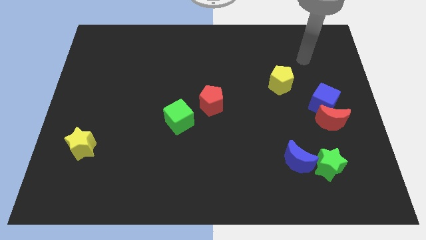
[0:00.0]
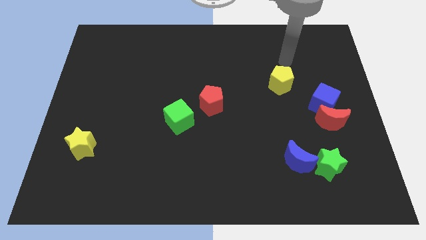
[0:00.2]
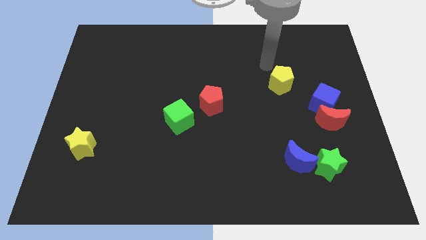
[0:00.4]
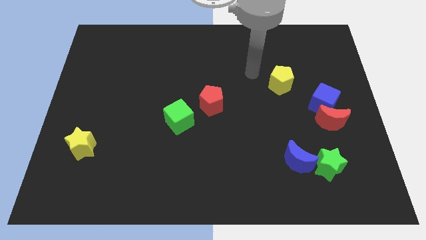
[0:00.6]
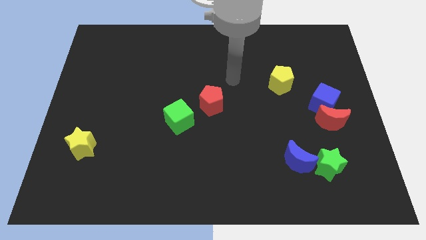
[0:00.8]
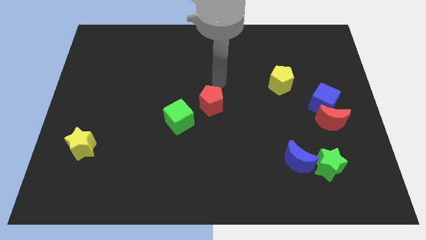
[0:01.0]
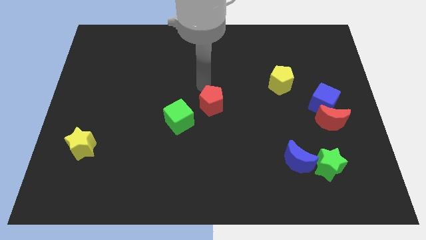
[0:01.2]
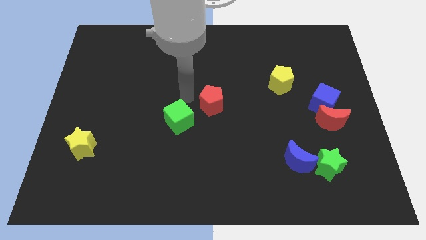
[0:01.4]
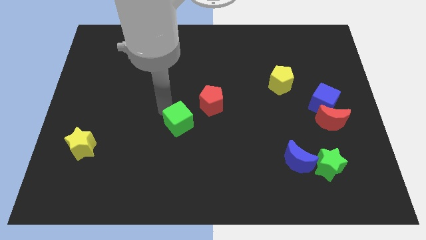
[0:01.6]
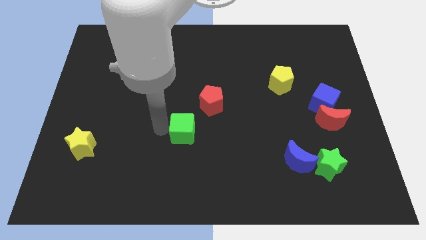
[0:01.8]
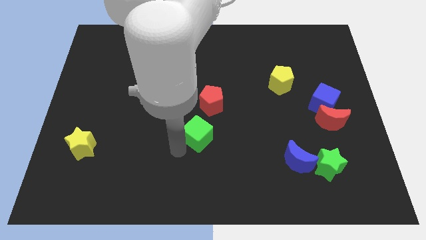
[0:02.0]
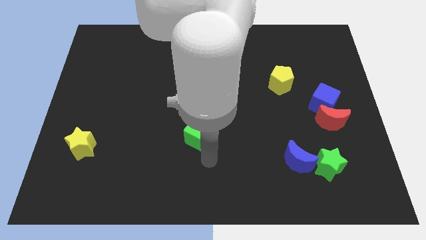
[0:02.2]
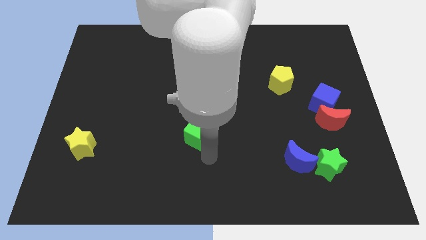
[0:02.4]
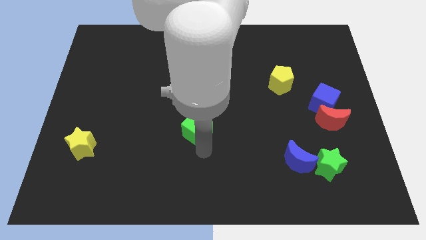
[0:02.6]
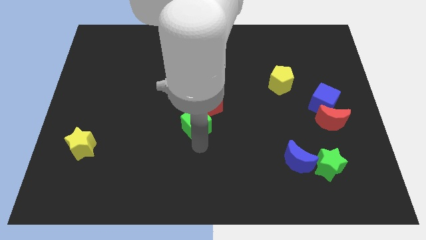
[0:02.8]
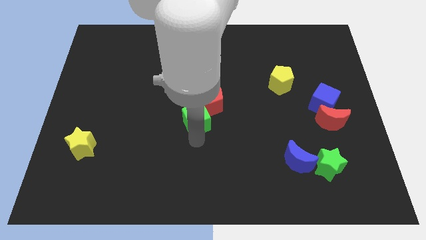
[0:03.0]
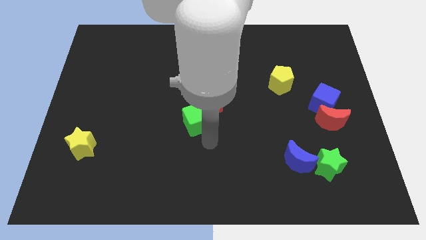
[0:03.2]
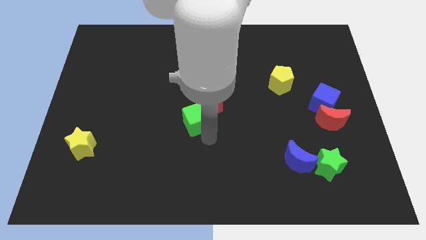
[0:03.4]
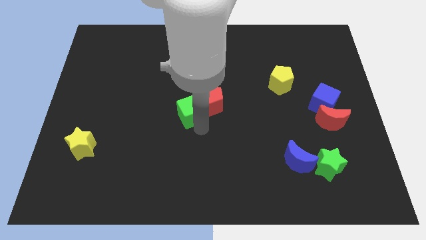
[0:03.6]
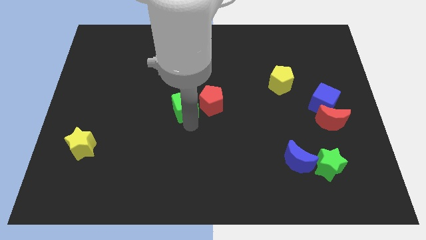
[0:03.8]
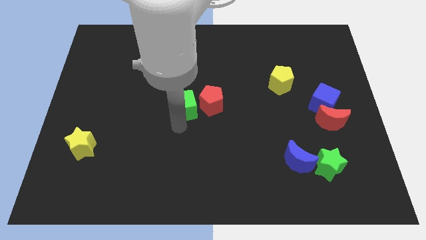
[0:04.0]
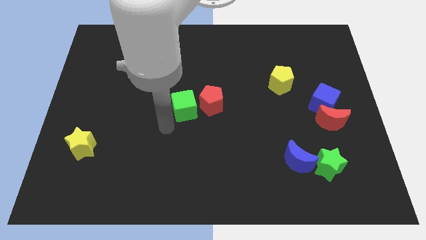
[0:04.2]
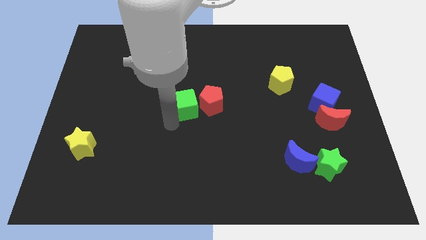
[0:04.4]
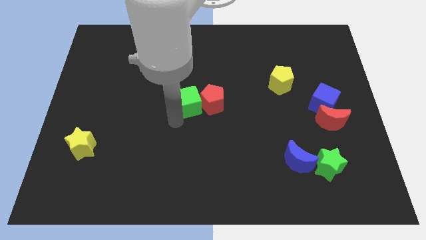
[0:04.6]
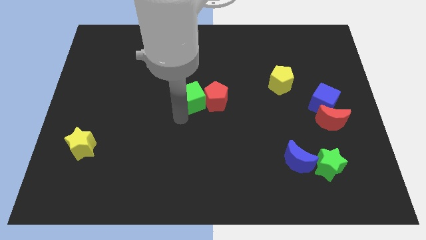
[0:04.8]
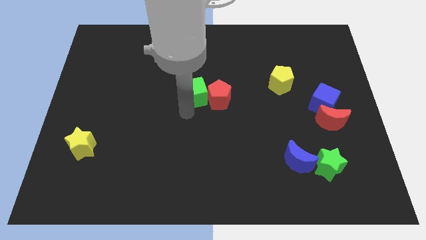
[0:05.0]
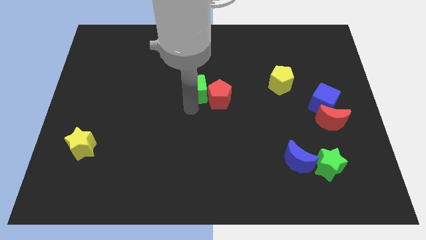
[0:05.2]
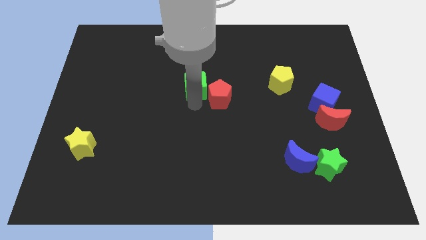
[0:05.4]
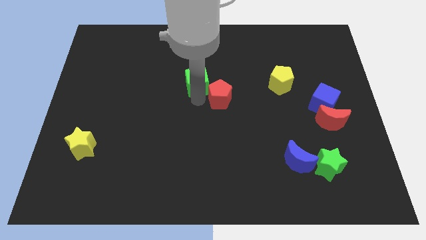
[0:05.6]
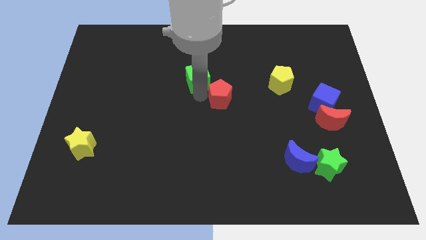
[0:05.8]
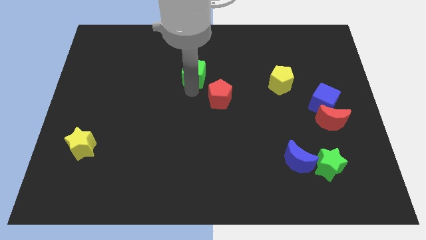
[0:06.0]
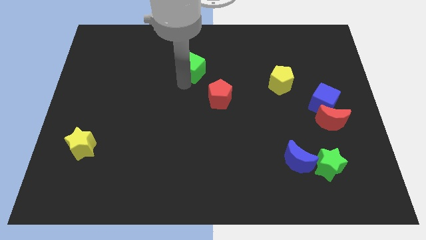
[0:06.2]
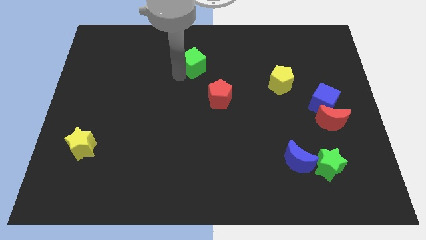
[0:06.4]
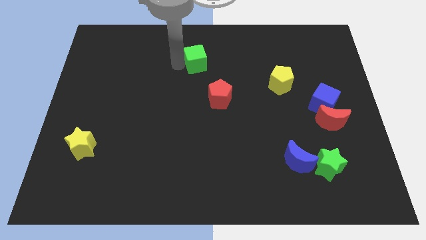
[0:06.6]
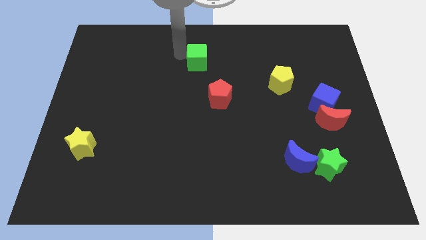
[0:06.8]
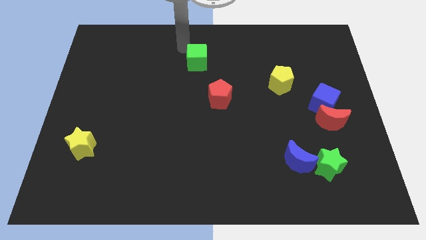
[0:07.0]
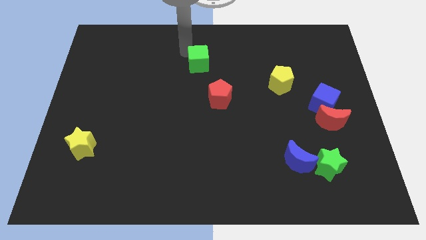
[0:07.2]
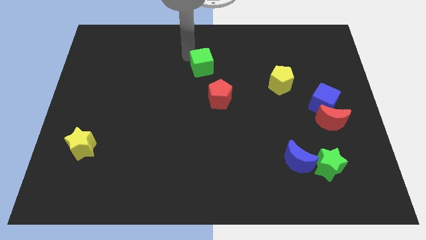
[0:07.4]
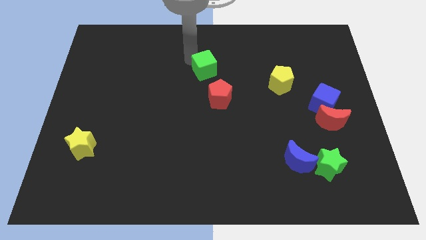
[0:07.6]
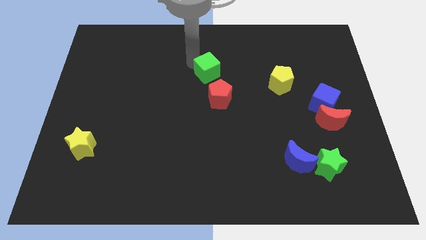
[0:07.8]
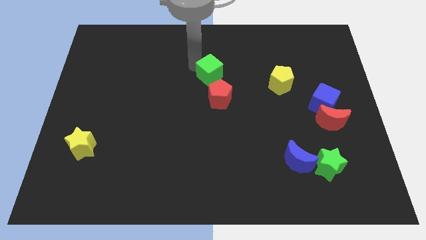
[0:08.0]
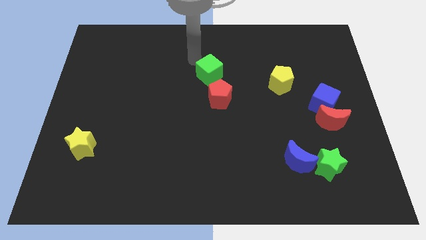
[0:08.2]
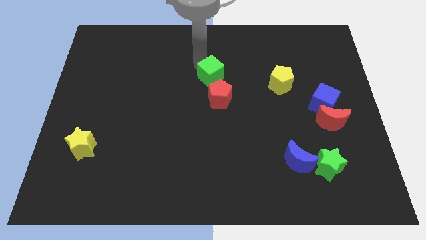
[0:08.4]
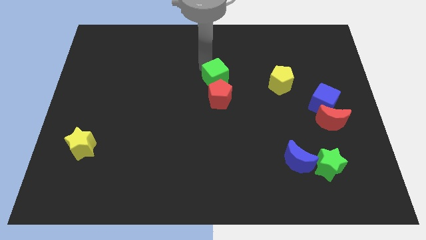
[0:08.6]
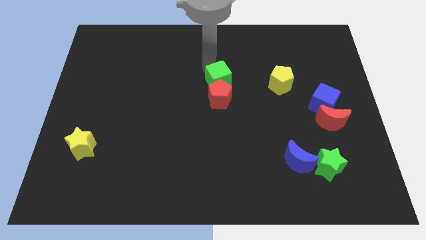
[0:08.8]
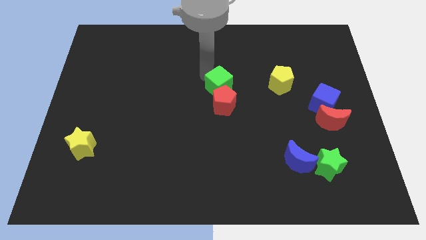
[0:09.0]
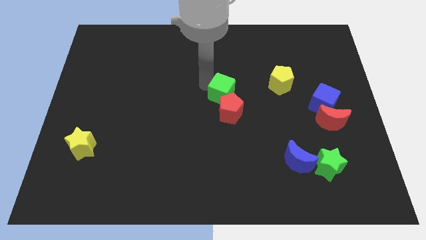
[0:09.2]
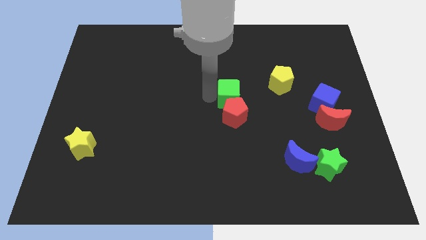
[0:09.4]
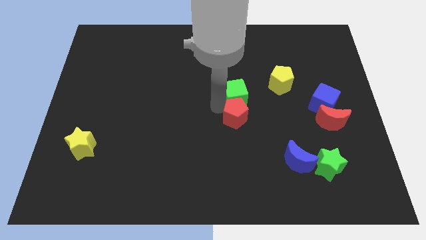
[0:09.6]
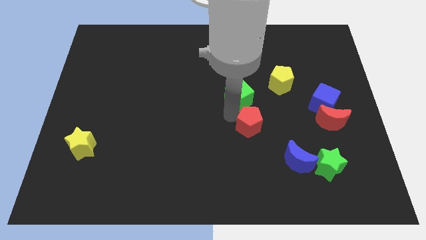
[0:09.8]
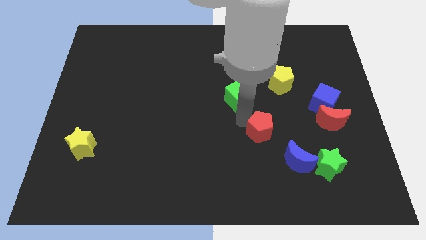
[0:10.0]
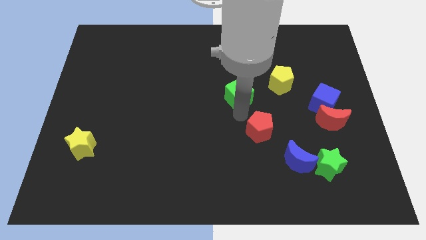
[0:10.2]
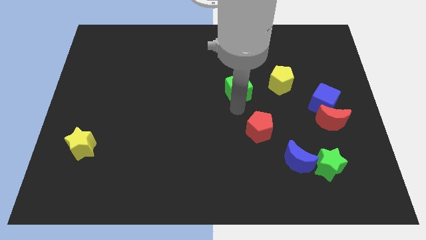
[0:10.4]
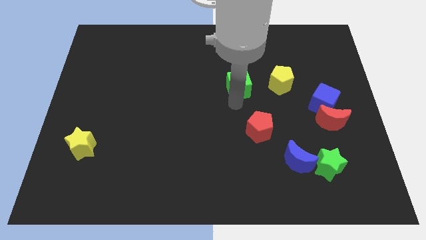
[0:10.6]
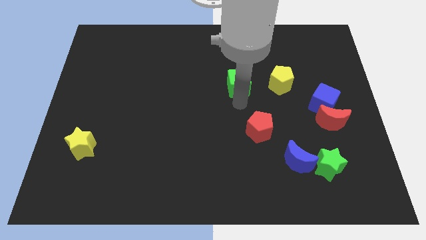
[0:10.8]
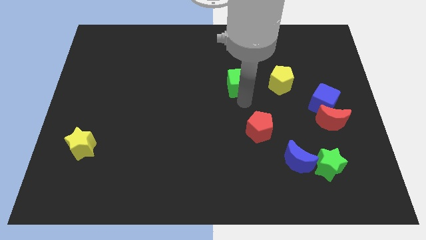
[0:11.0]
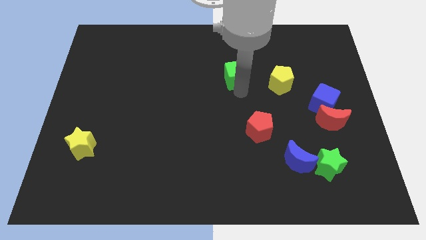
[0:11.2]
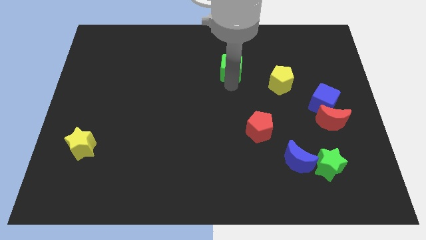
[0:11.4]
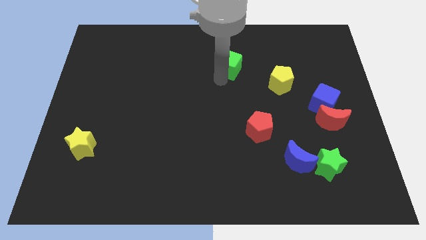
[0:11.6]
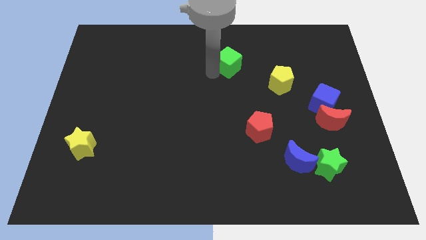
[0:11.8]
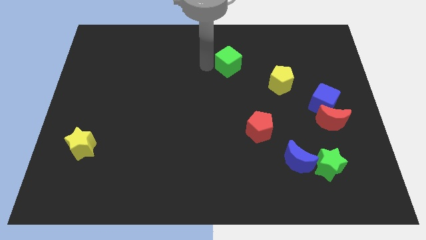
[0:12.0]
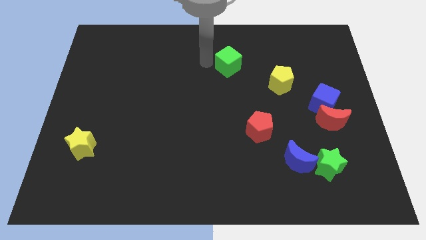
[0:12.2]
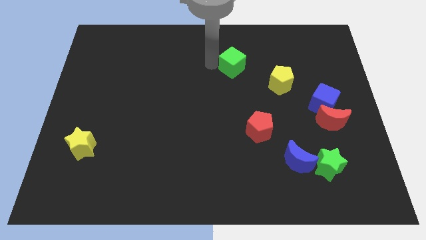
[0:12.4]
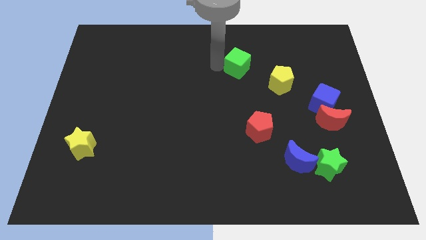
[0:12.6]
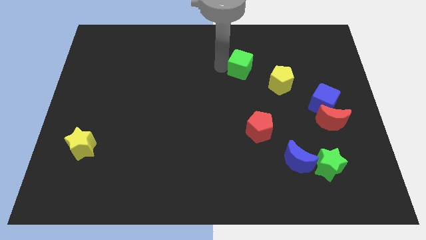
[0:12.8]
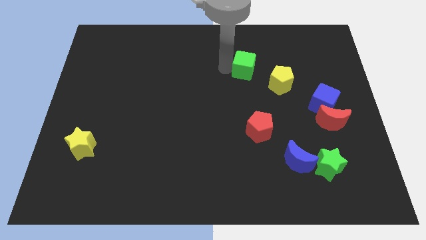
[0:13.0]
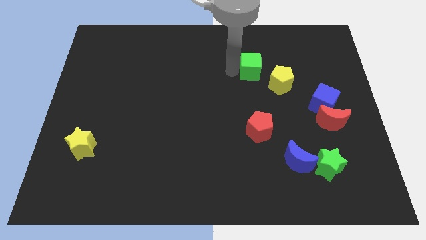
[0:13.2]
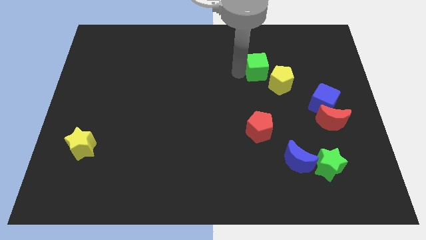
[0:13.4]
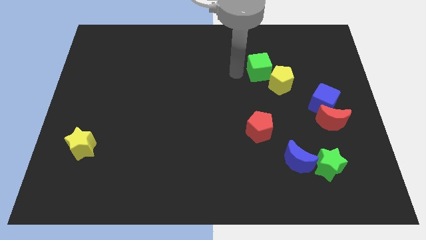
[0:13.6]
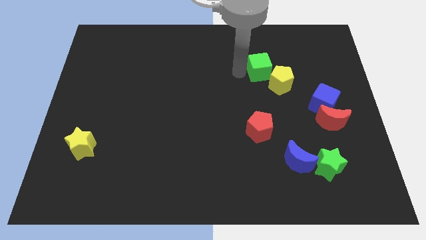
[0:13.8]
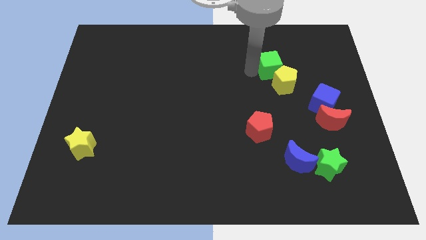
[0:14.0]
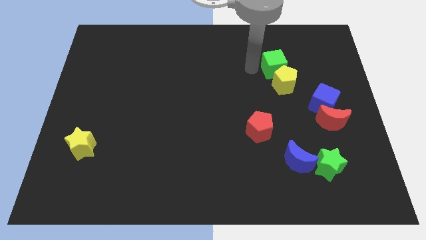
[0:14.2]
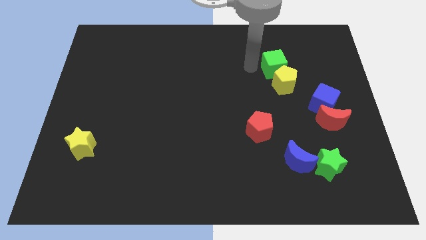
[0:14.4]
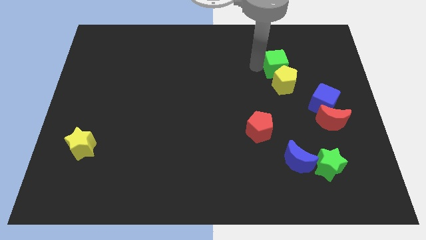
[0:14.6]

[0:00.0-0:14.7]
move the green cube to the top right side of the yellow pentagon
